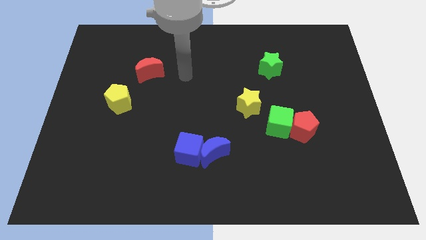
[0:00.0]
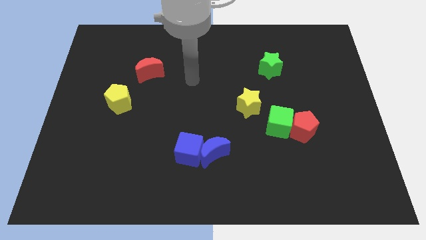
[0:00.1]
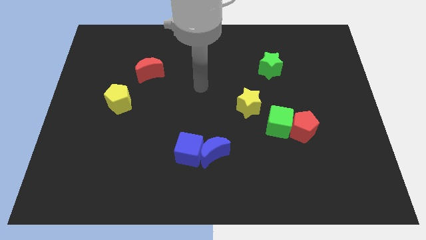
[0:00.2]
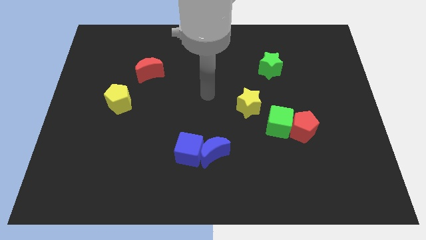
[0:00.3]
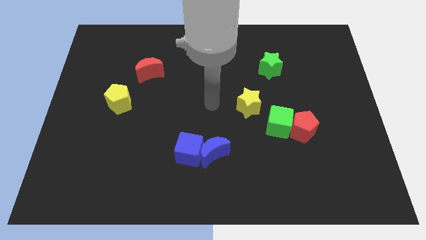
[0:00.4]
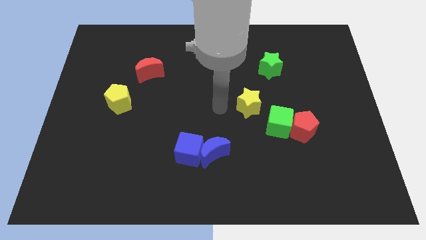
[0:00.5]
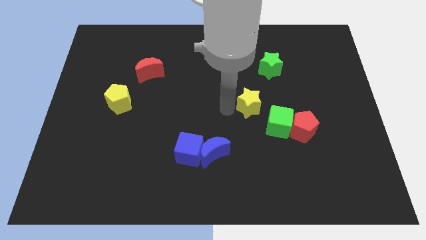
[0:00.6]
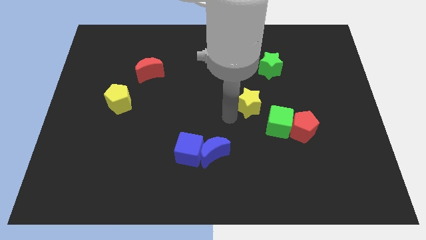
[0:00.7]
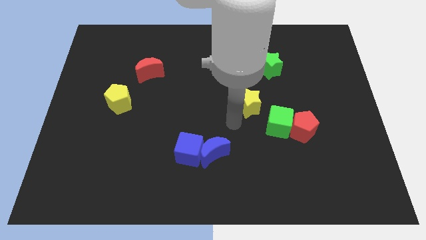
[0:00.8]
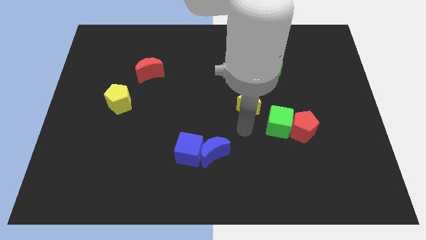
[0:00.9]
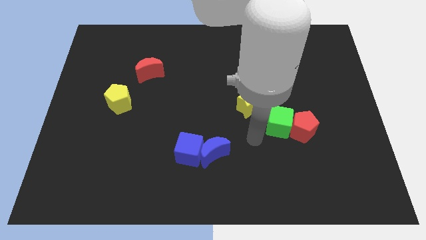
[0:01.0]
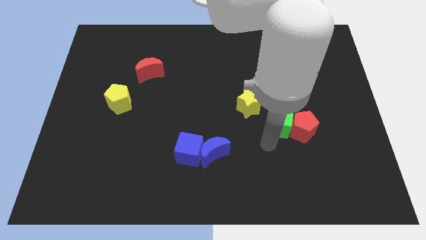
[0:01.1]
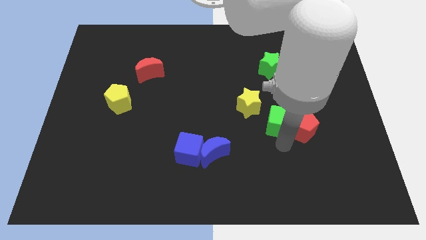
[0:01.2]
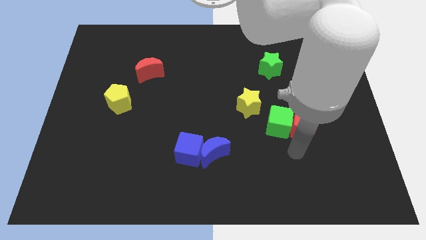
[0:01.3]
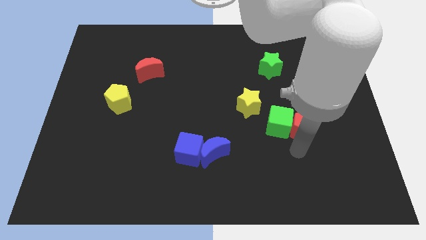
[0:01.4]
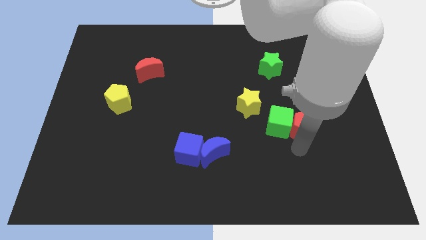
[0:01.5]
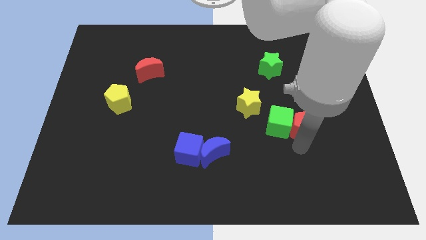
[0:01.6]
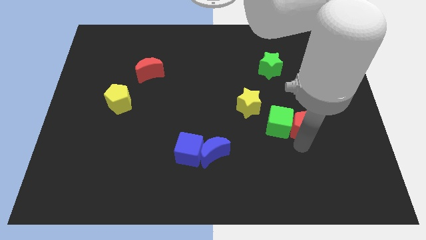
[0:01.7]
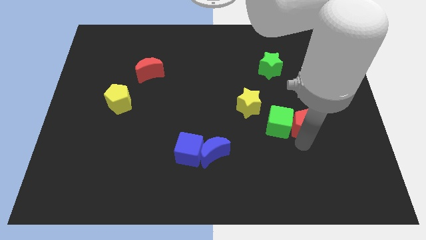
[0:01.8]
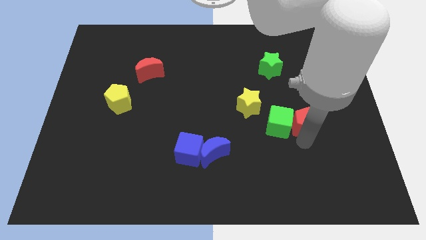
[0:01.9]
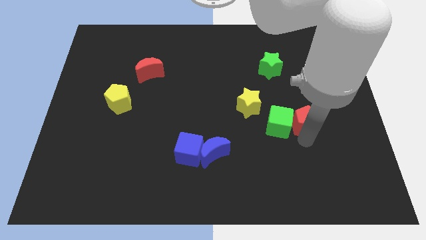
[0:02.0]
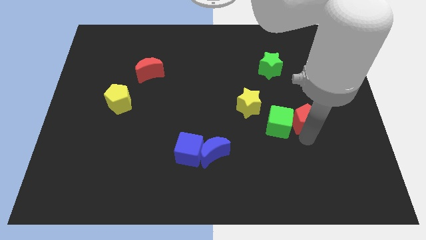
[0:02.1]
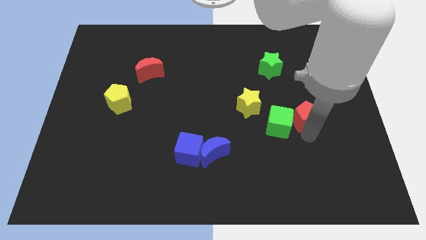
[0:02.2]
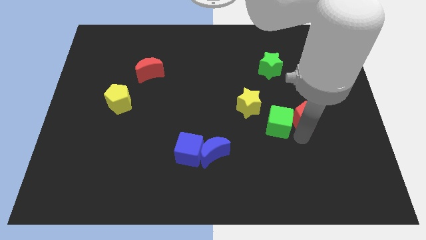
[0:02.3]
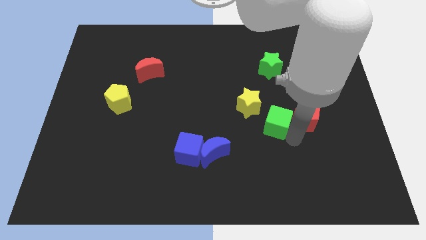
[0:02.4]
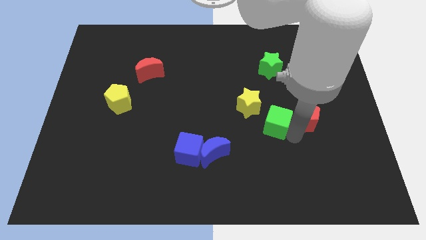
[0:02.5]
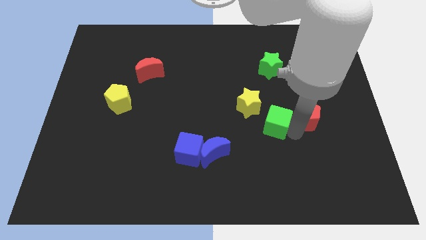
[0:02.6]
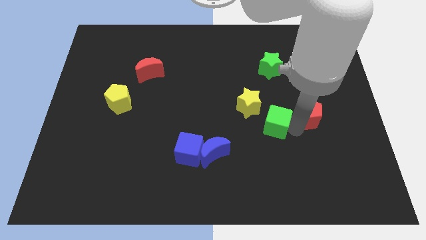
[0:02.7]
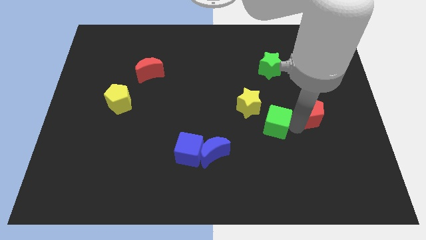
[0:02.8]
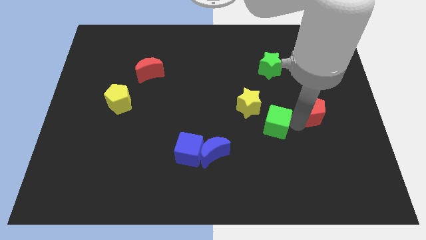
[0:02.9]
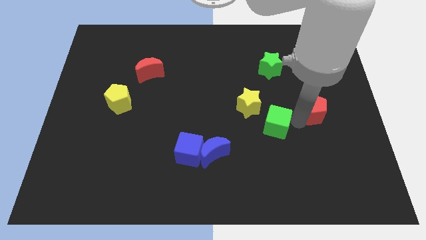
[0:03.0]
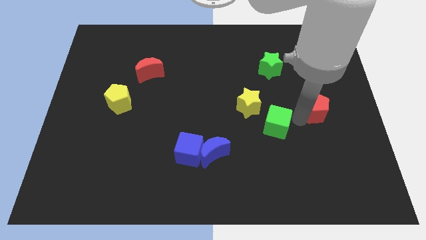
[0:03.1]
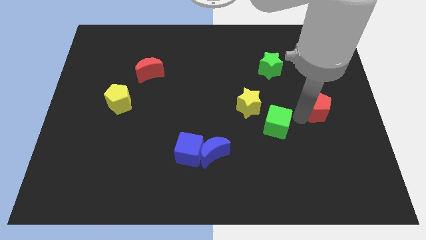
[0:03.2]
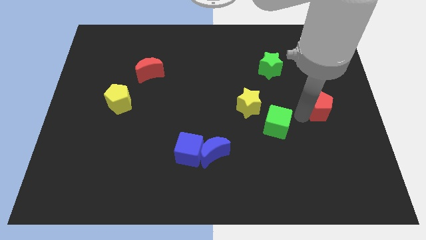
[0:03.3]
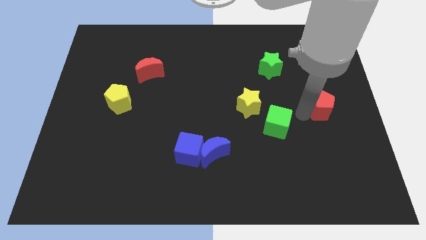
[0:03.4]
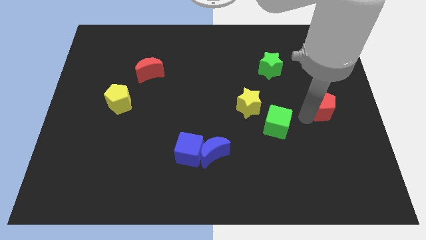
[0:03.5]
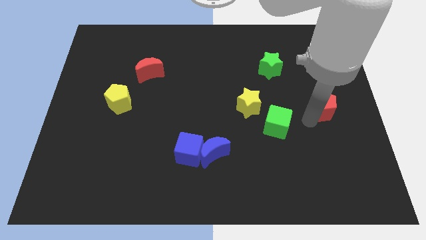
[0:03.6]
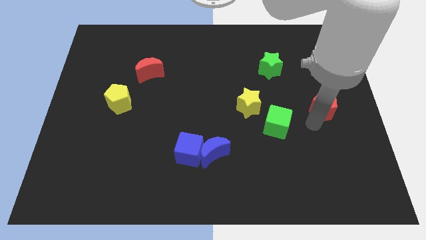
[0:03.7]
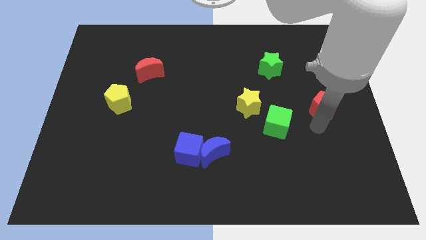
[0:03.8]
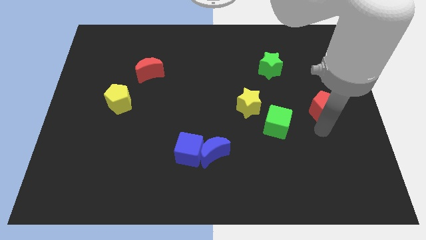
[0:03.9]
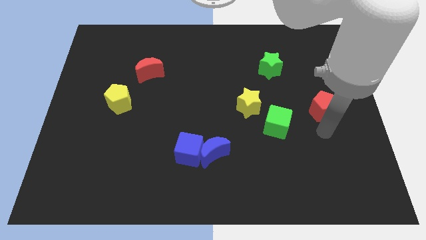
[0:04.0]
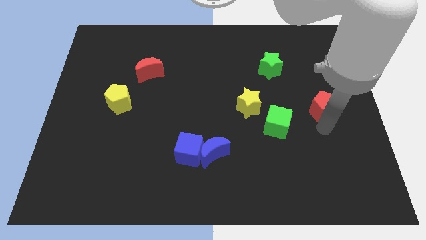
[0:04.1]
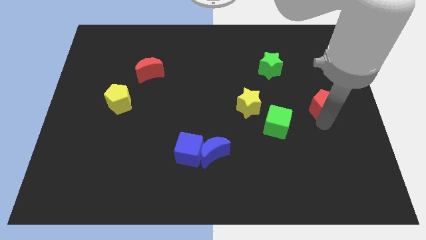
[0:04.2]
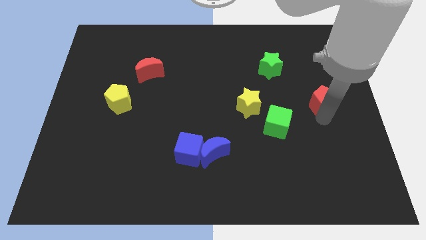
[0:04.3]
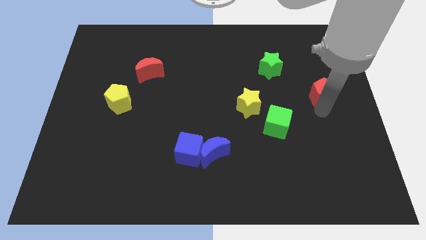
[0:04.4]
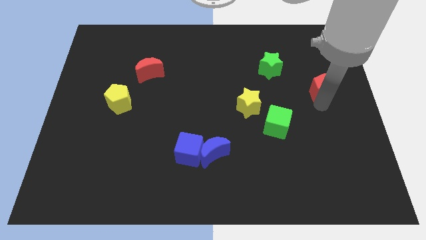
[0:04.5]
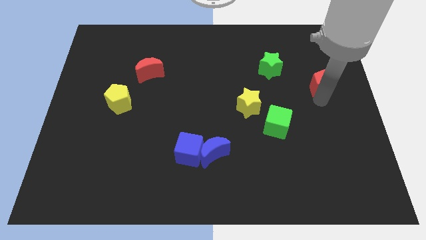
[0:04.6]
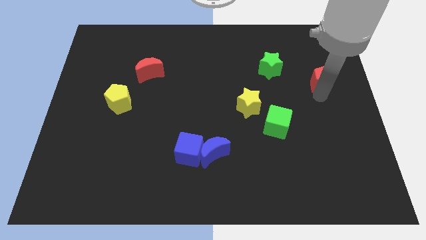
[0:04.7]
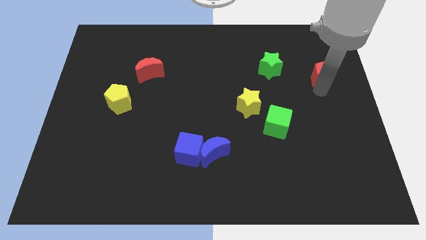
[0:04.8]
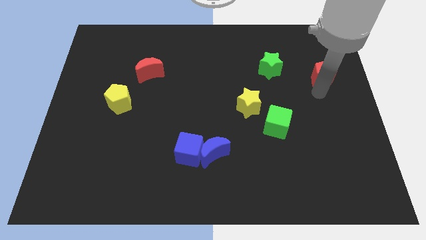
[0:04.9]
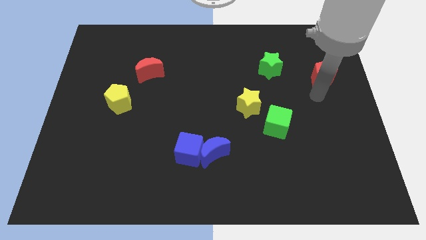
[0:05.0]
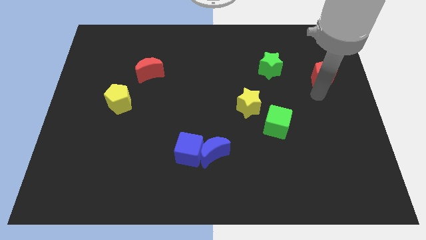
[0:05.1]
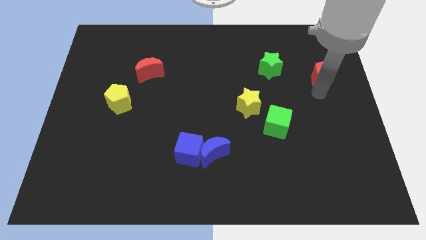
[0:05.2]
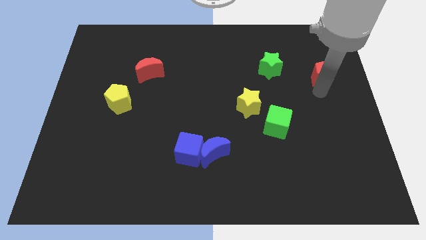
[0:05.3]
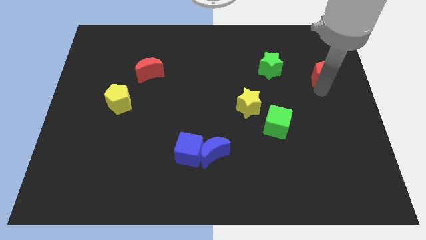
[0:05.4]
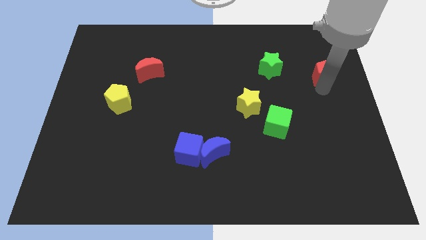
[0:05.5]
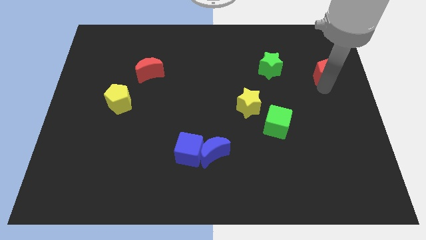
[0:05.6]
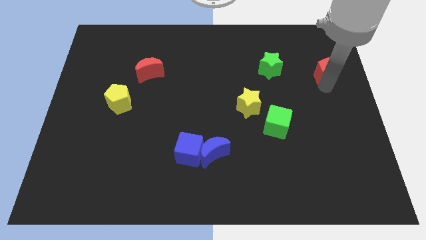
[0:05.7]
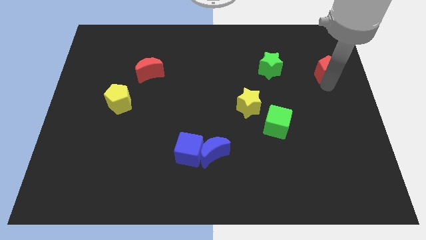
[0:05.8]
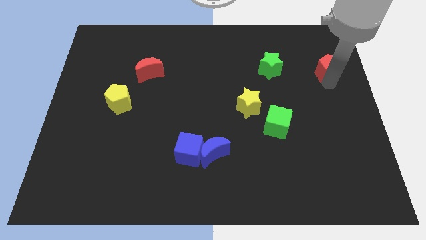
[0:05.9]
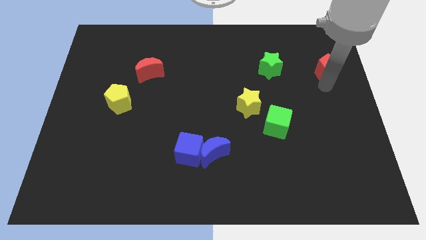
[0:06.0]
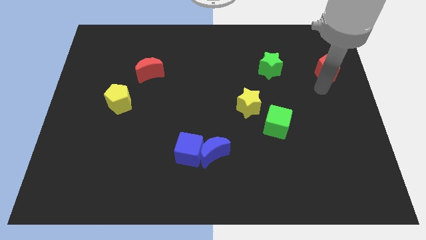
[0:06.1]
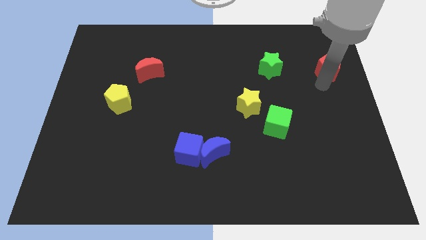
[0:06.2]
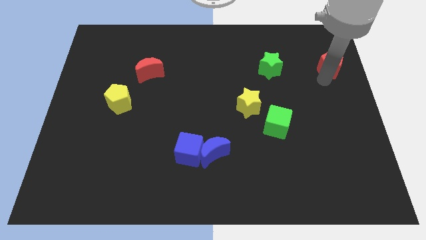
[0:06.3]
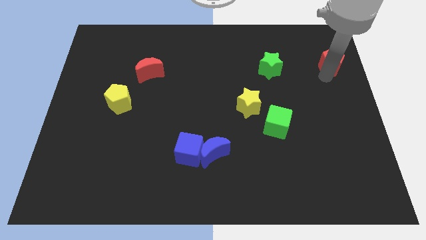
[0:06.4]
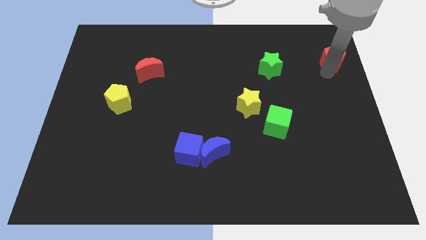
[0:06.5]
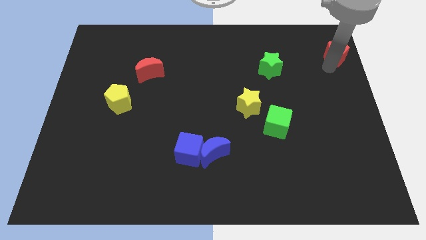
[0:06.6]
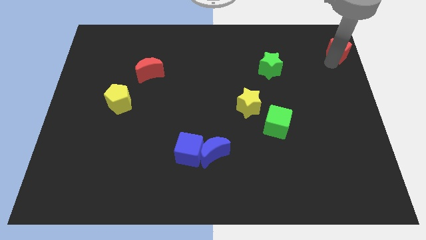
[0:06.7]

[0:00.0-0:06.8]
push the red pentagon to the upper right corner

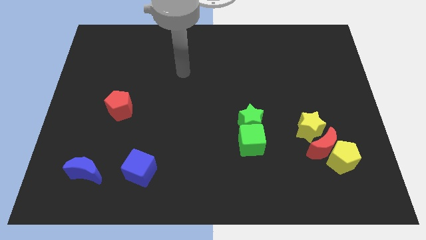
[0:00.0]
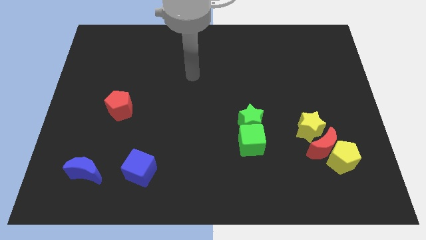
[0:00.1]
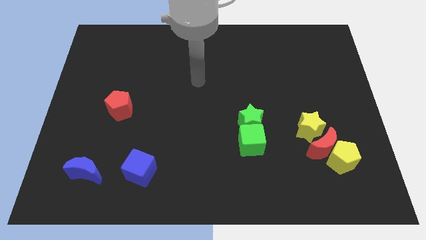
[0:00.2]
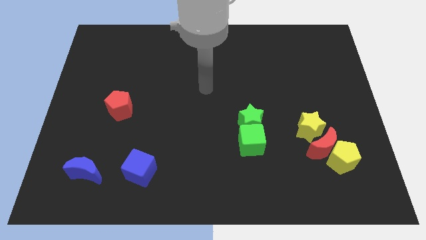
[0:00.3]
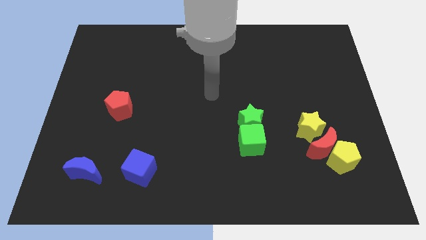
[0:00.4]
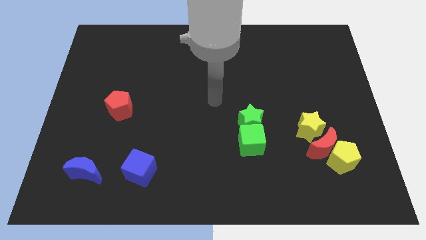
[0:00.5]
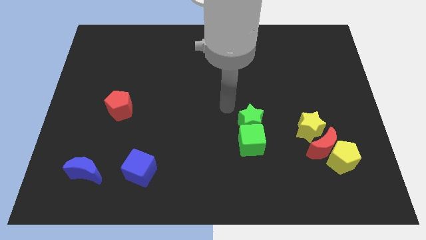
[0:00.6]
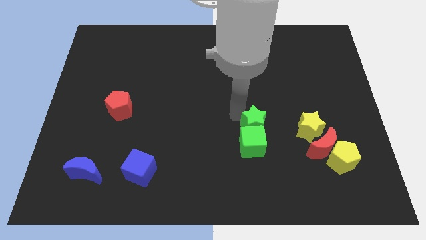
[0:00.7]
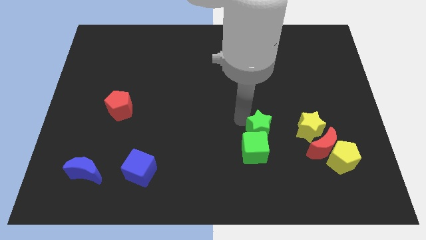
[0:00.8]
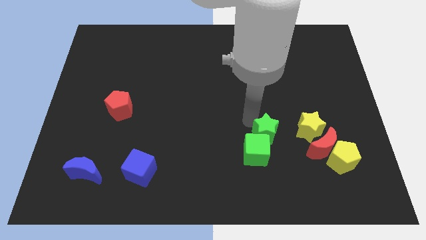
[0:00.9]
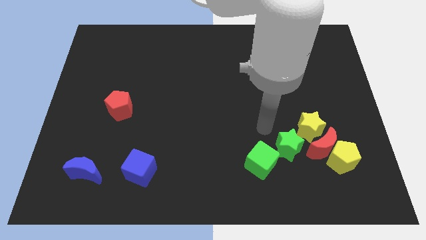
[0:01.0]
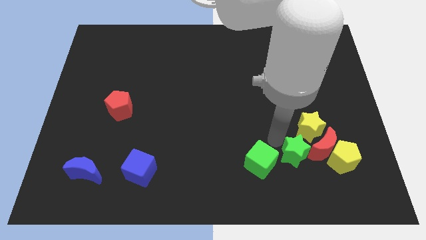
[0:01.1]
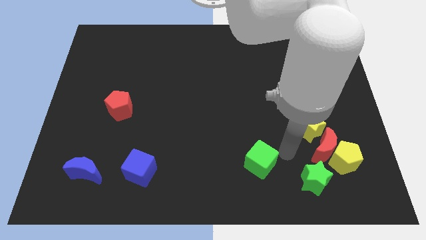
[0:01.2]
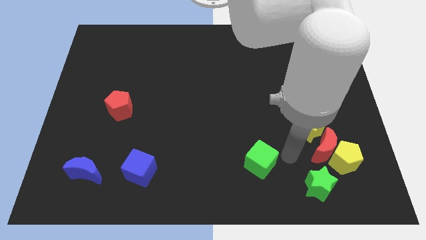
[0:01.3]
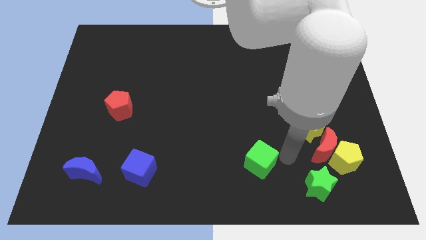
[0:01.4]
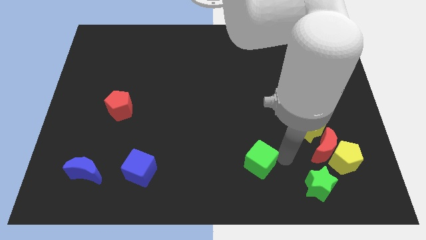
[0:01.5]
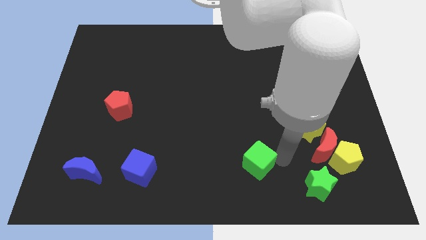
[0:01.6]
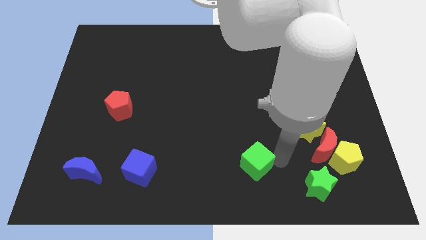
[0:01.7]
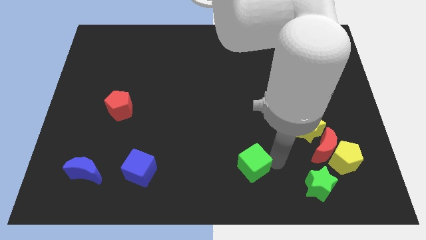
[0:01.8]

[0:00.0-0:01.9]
push the green cube to the bottom
